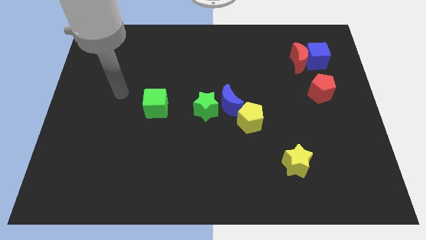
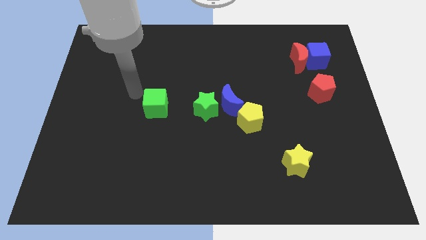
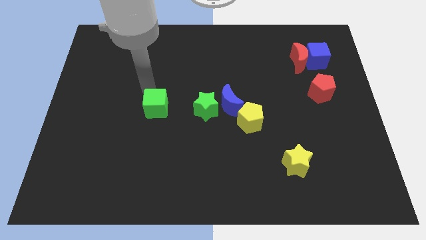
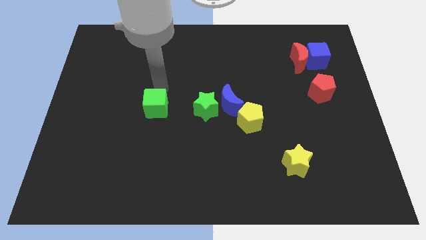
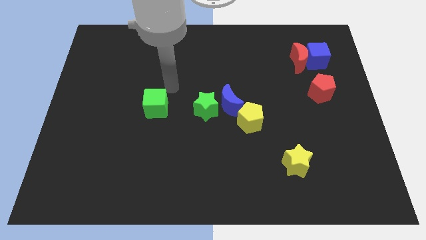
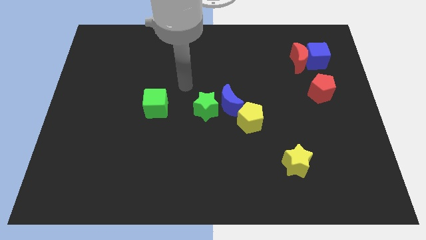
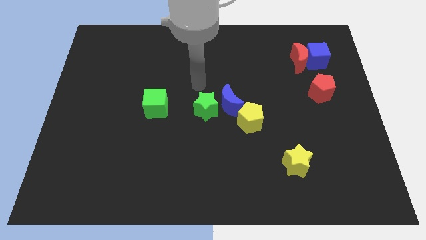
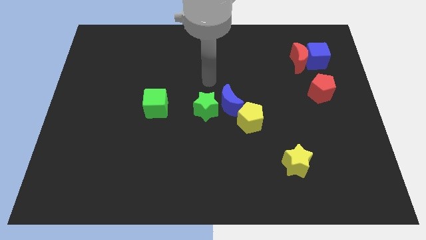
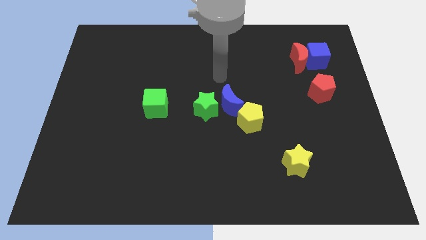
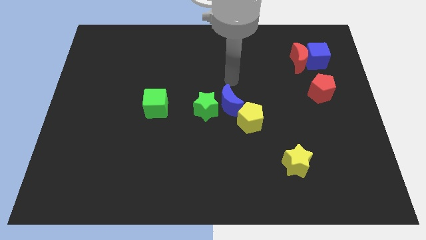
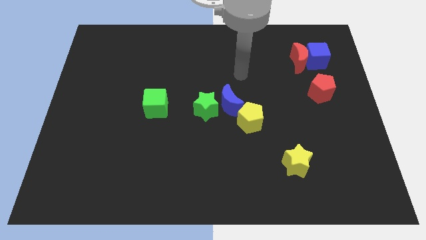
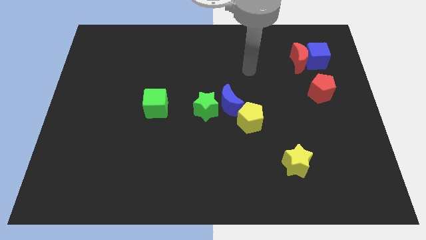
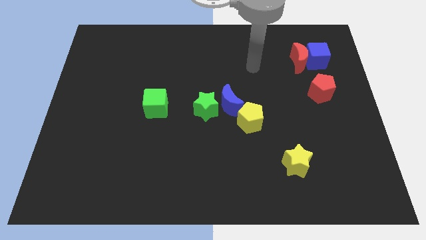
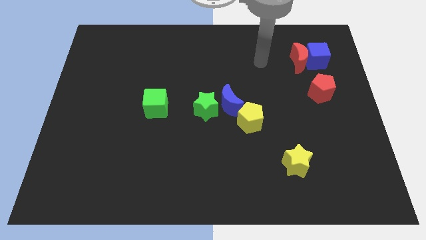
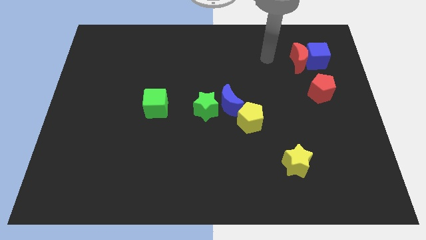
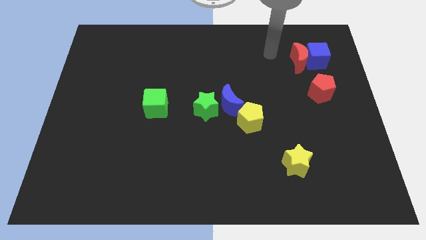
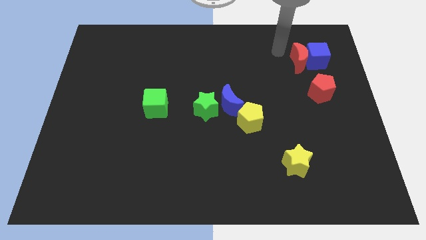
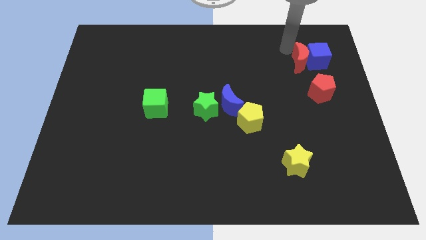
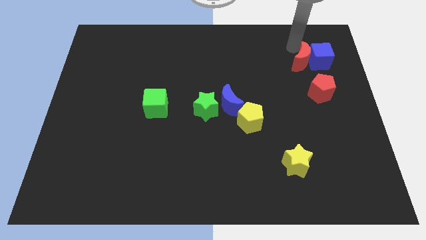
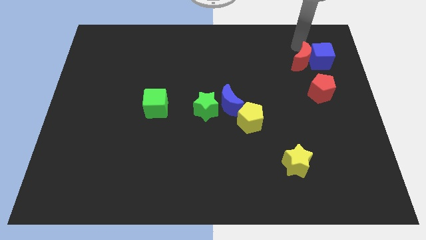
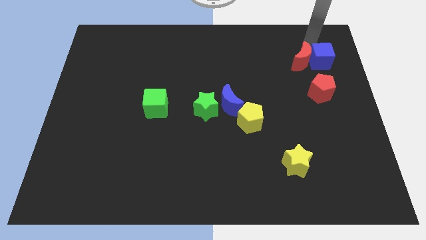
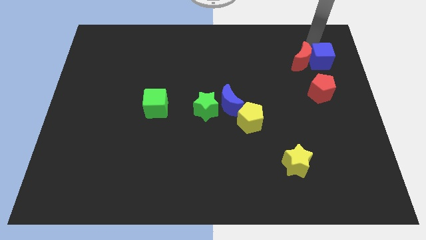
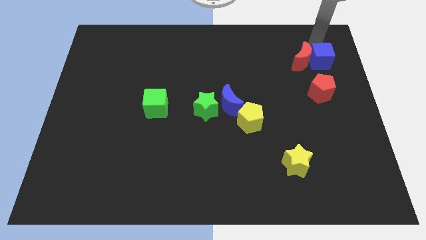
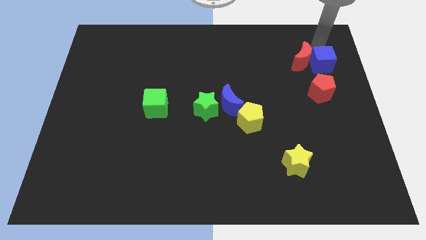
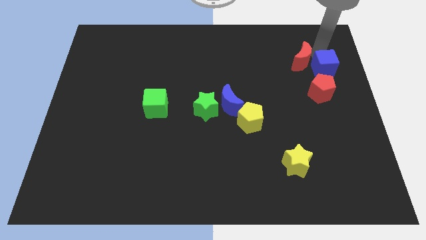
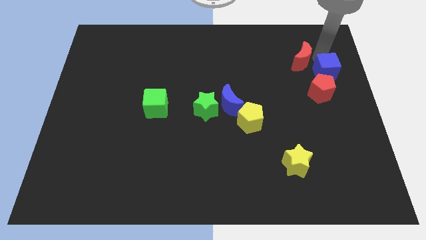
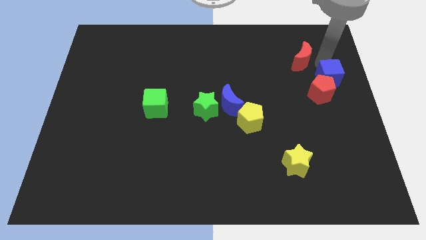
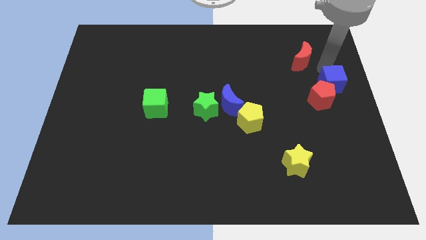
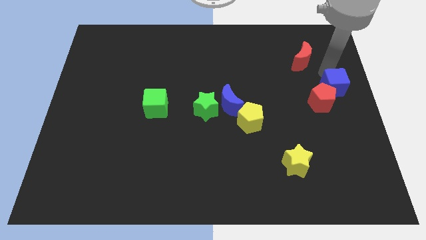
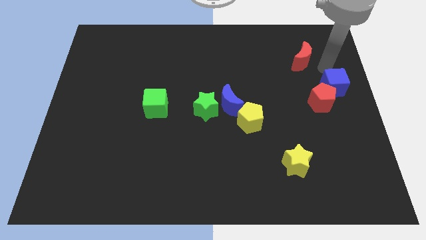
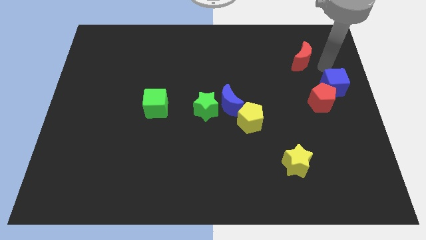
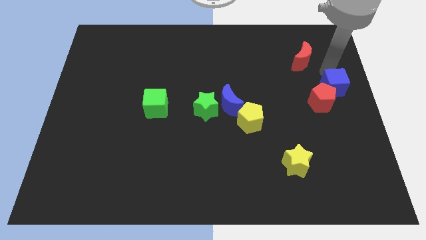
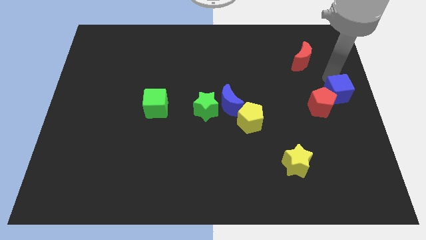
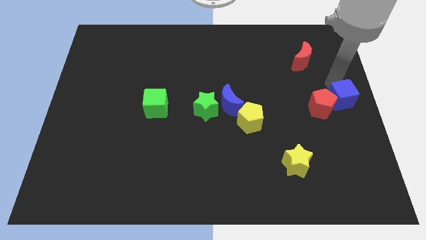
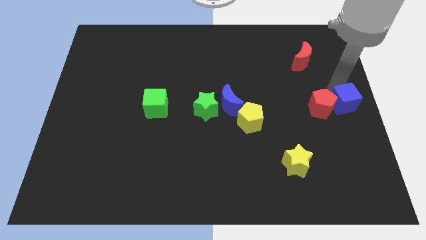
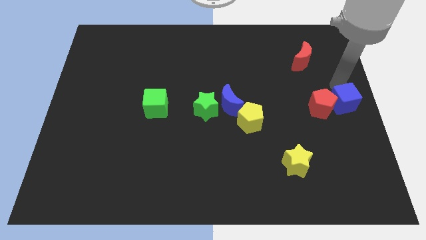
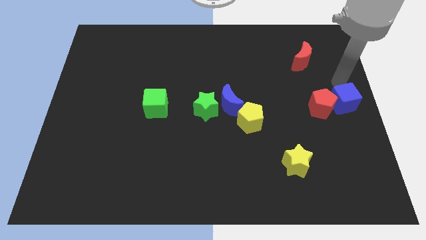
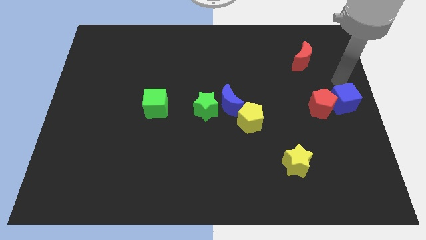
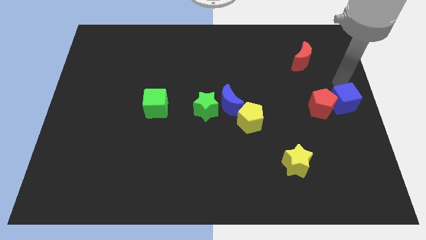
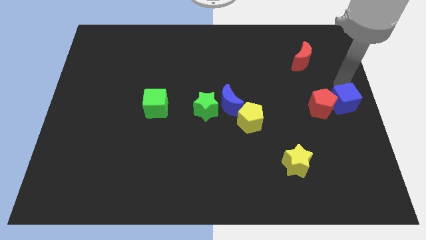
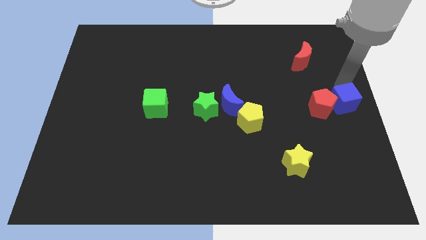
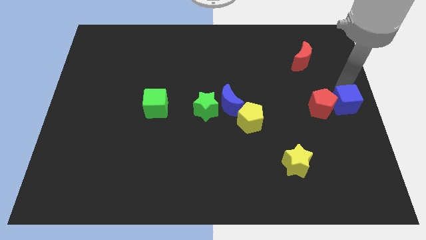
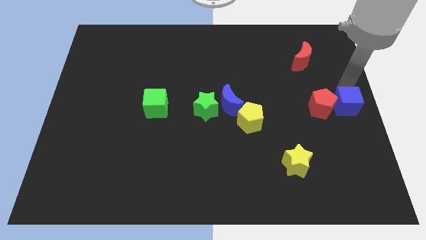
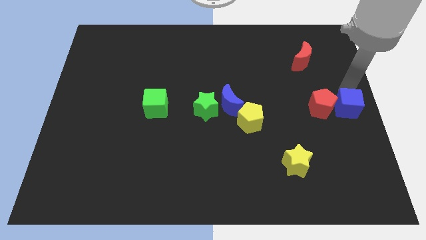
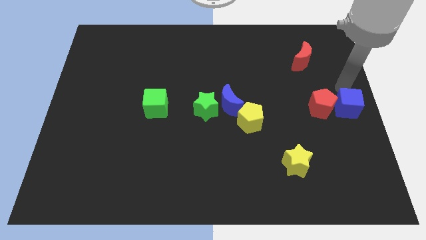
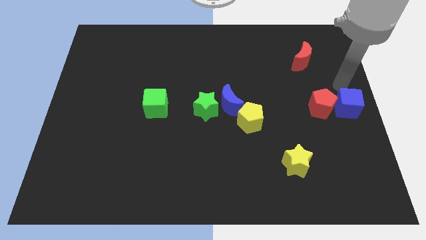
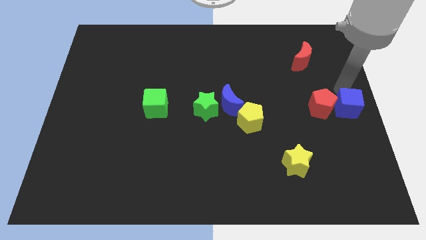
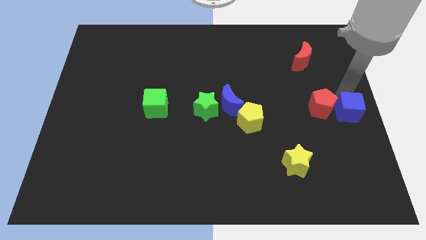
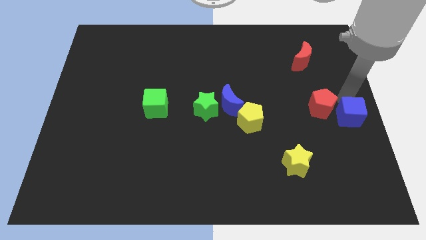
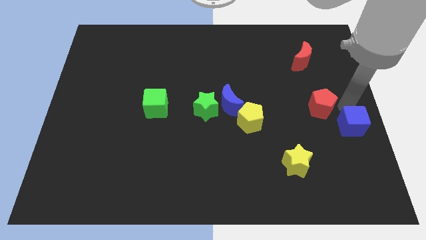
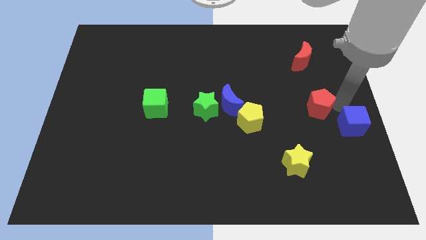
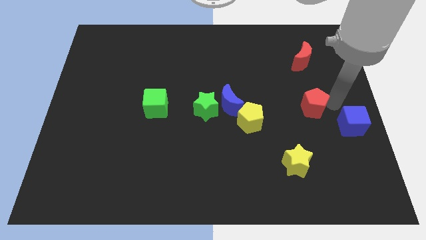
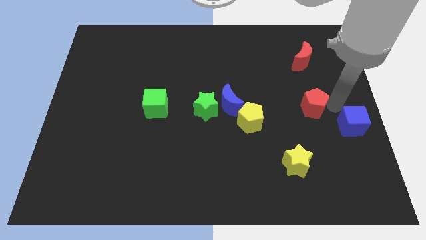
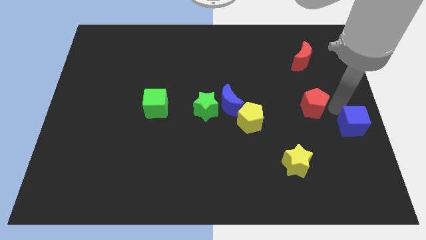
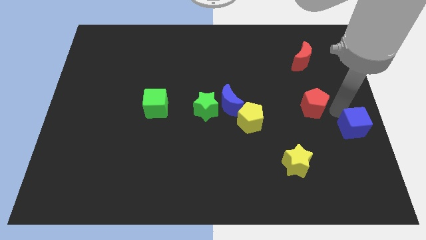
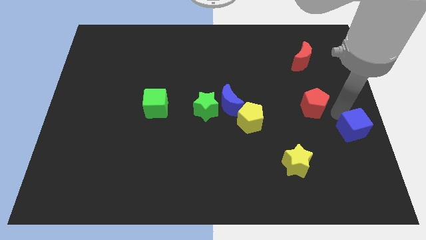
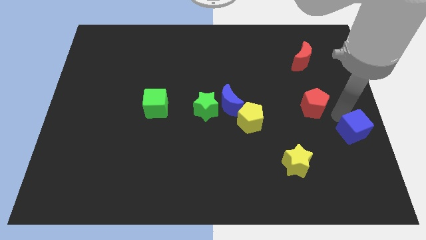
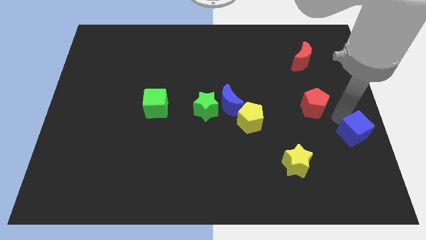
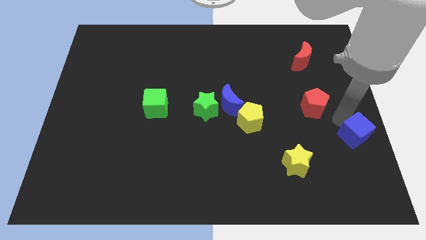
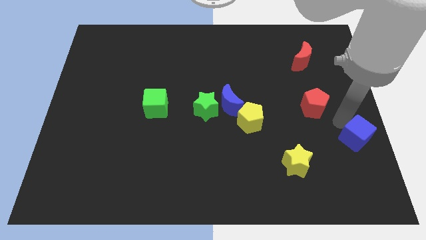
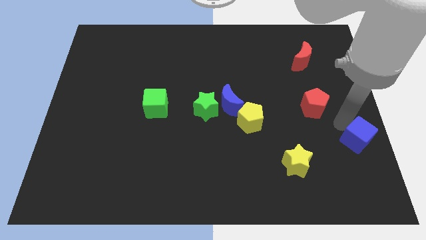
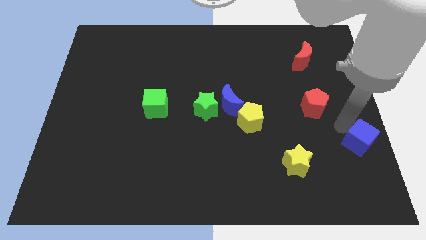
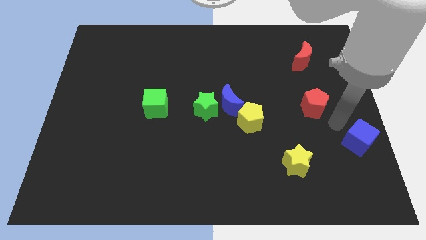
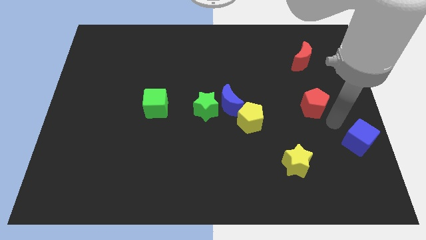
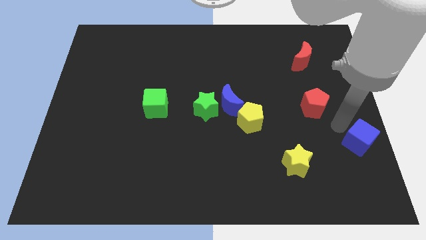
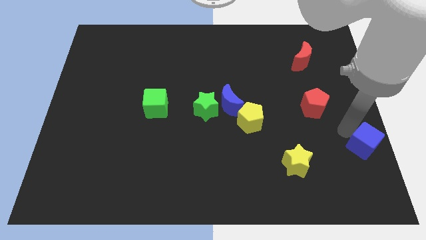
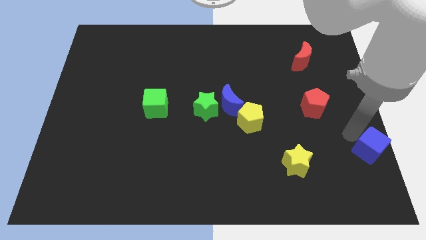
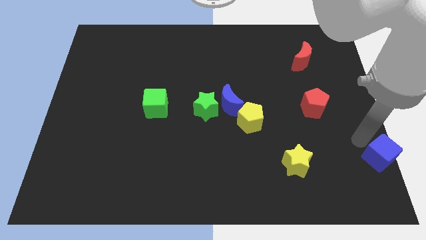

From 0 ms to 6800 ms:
move the blue cube to the bottom right corner
